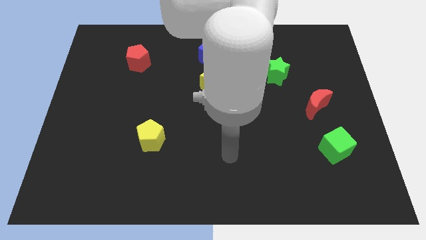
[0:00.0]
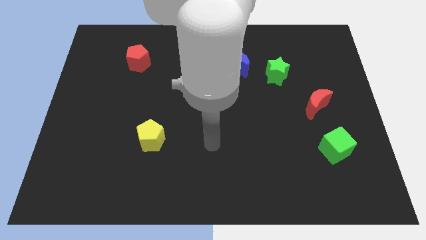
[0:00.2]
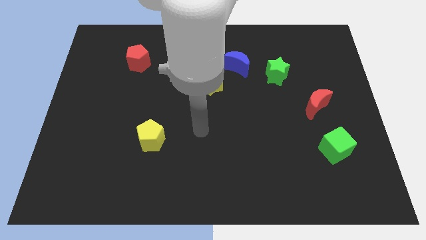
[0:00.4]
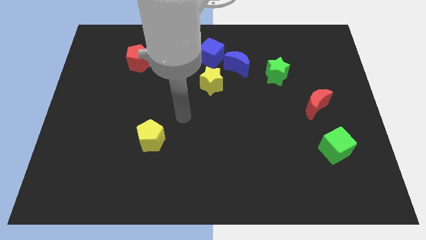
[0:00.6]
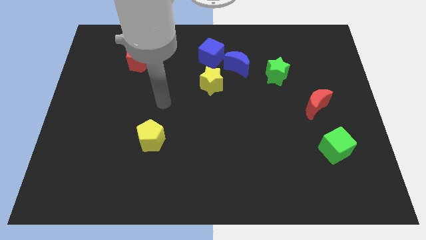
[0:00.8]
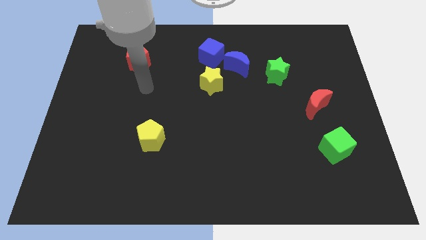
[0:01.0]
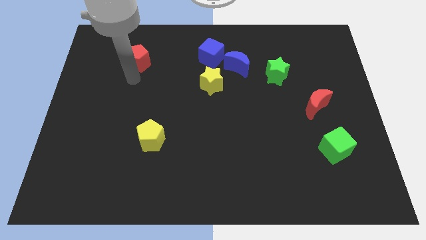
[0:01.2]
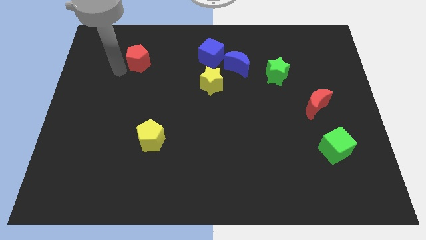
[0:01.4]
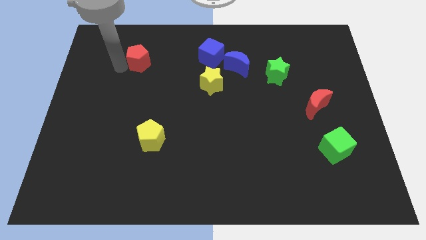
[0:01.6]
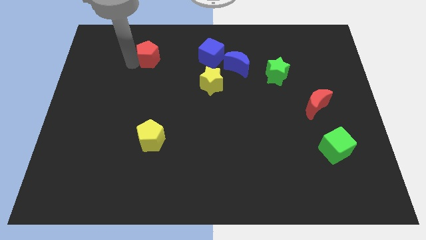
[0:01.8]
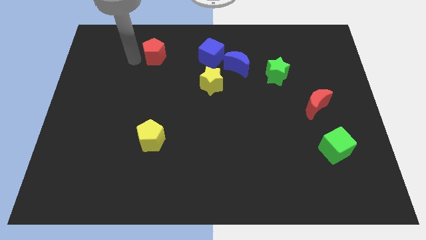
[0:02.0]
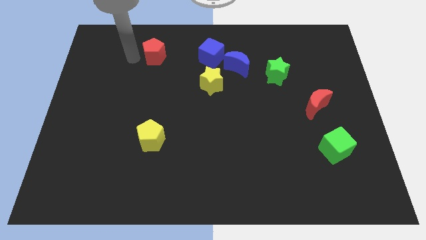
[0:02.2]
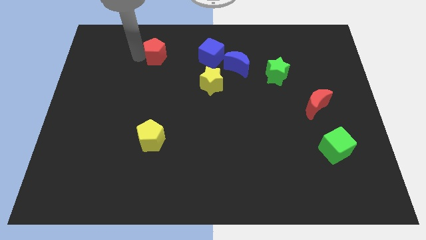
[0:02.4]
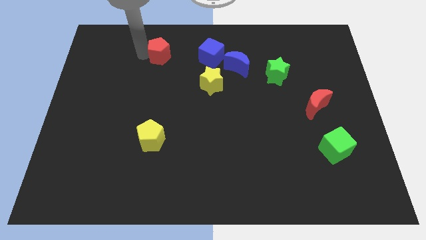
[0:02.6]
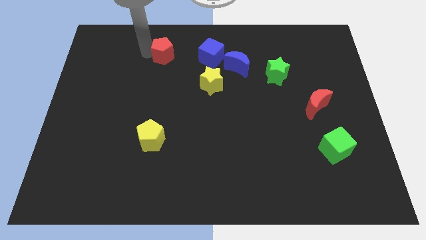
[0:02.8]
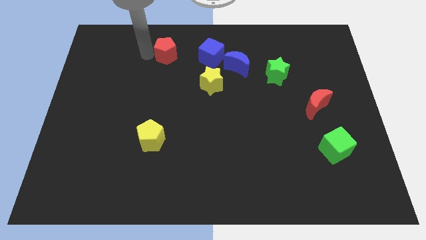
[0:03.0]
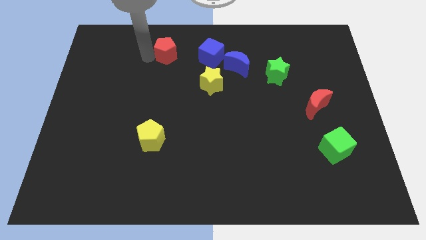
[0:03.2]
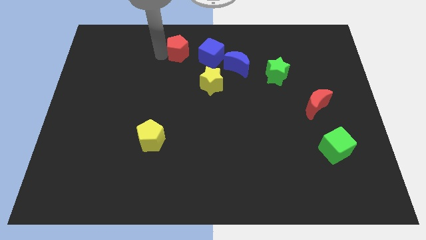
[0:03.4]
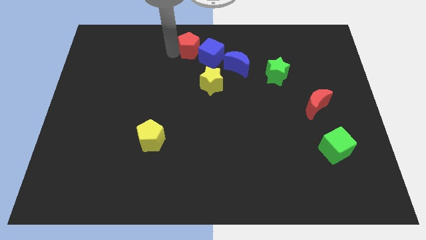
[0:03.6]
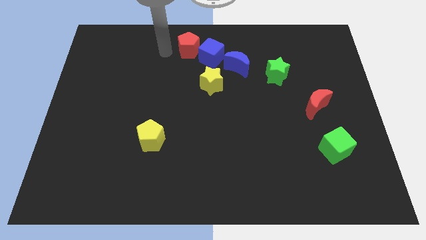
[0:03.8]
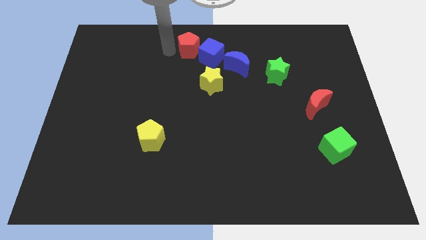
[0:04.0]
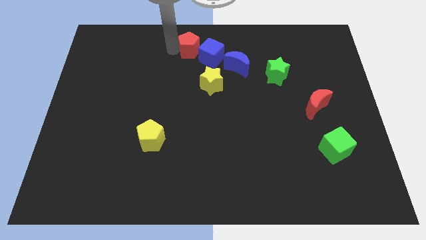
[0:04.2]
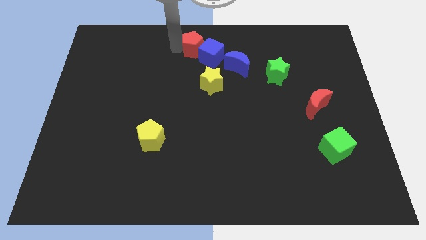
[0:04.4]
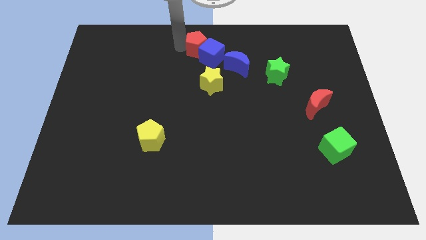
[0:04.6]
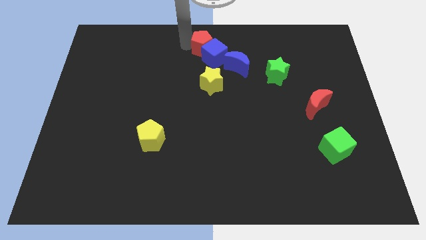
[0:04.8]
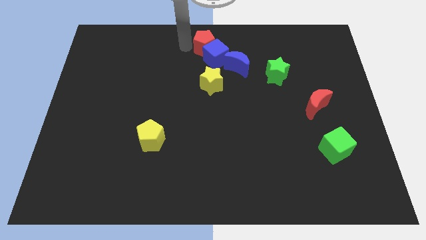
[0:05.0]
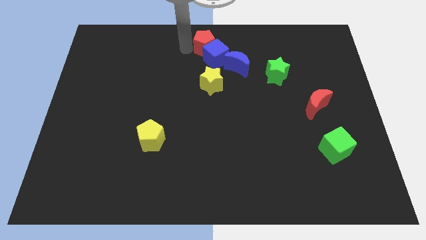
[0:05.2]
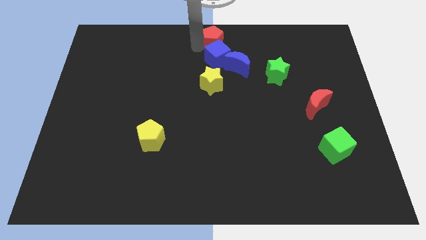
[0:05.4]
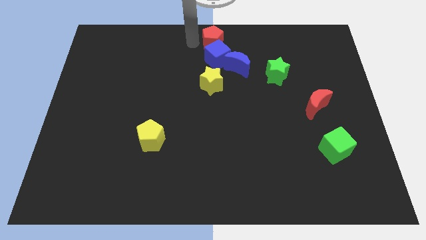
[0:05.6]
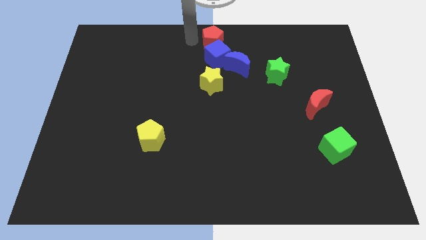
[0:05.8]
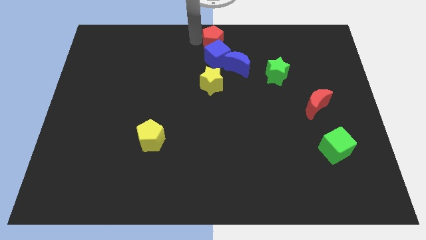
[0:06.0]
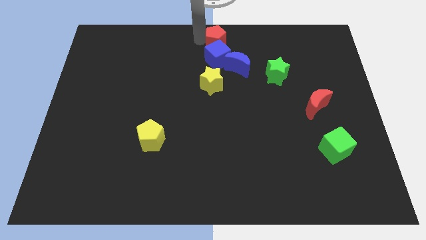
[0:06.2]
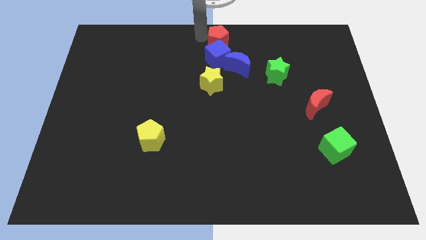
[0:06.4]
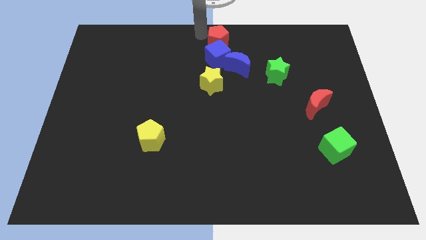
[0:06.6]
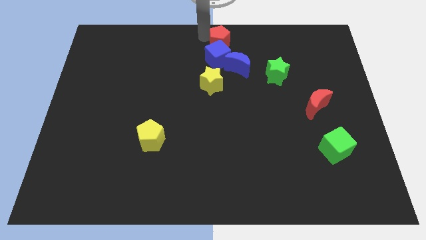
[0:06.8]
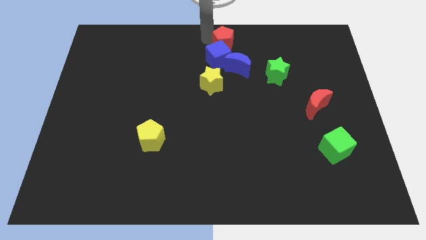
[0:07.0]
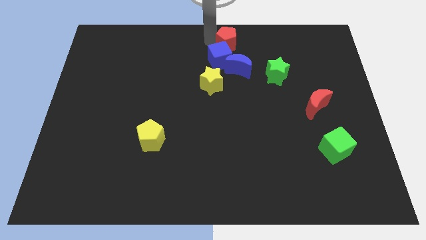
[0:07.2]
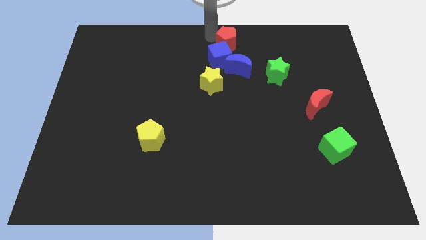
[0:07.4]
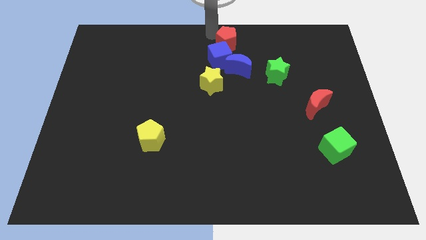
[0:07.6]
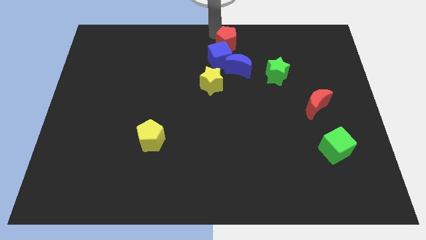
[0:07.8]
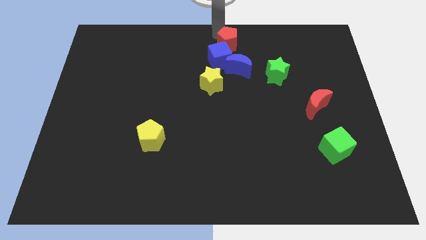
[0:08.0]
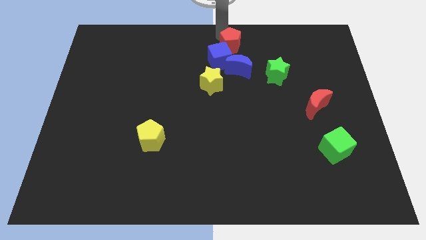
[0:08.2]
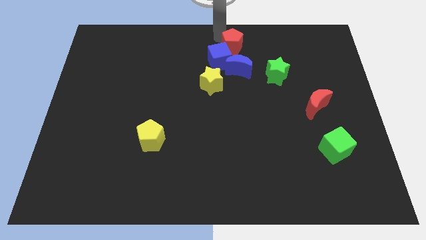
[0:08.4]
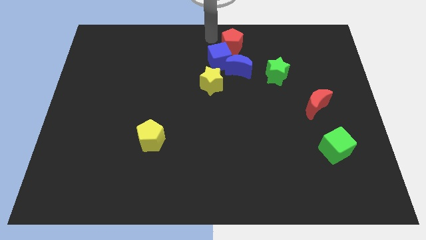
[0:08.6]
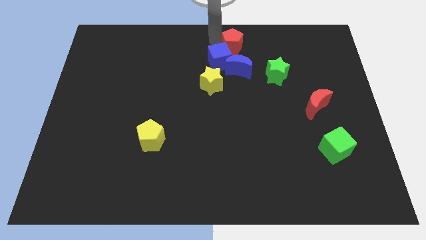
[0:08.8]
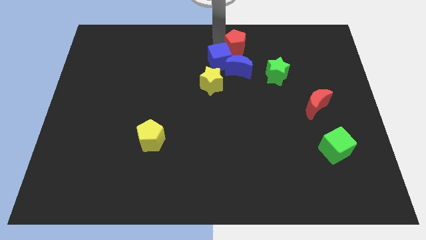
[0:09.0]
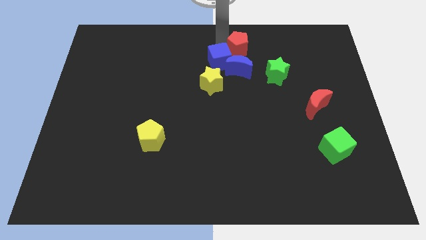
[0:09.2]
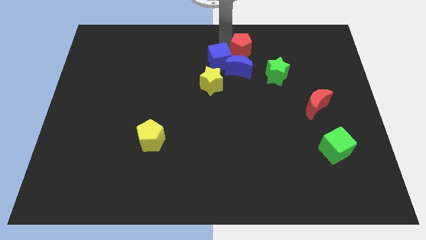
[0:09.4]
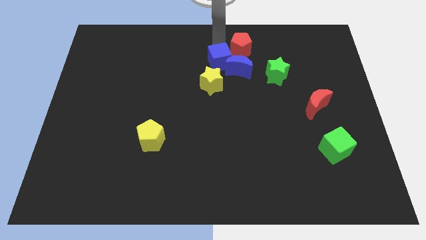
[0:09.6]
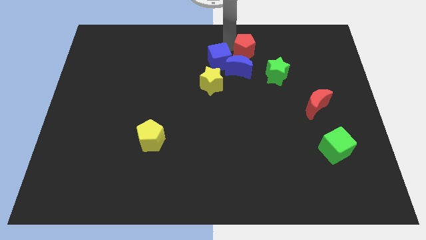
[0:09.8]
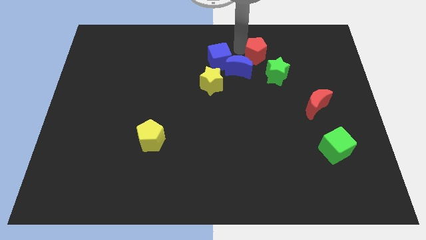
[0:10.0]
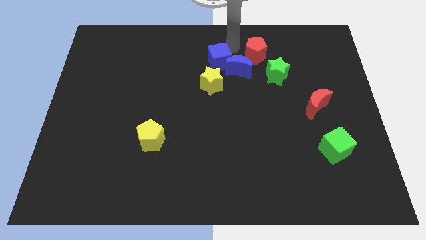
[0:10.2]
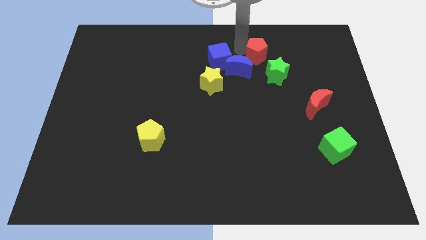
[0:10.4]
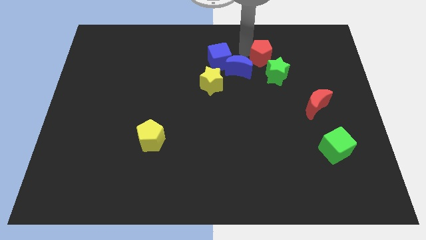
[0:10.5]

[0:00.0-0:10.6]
slide the red pentagon just right of the blue moon

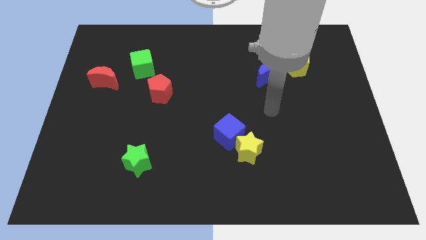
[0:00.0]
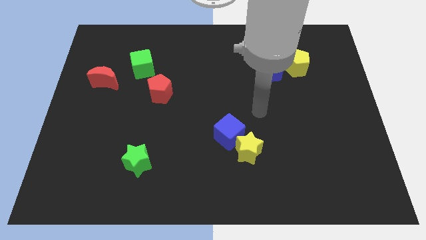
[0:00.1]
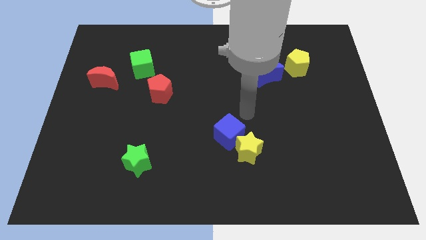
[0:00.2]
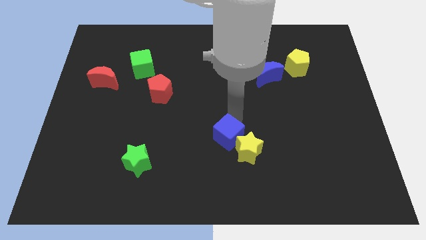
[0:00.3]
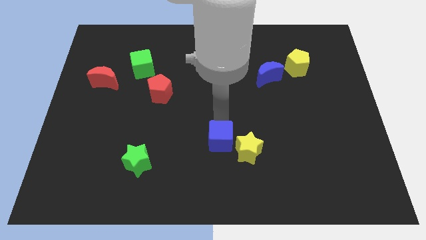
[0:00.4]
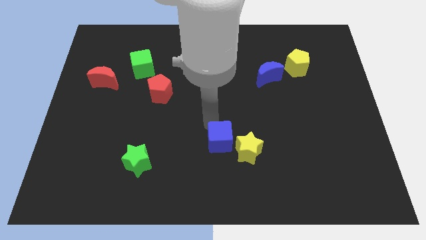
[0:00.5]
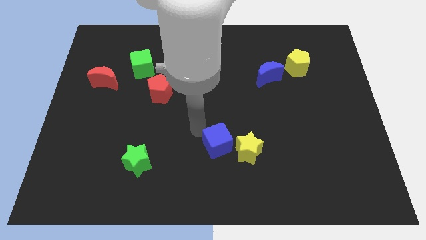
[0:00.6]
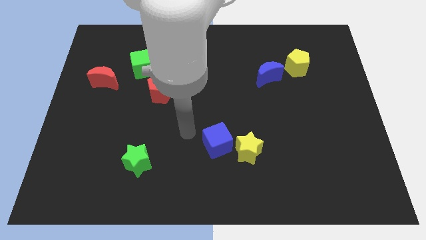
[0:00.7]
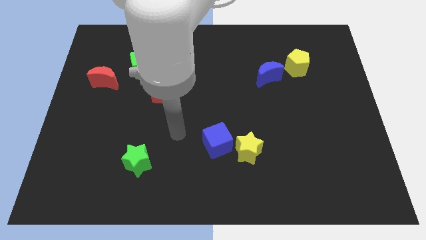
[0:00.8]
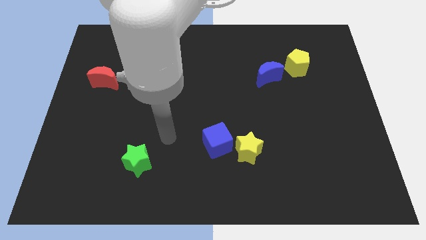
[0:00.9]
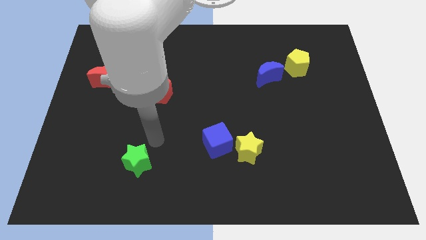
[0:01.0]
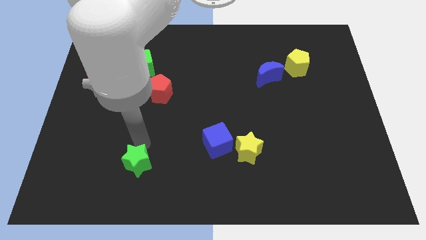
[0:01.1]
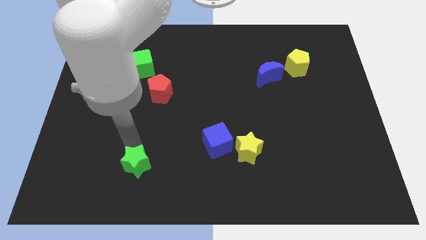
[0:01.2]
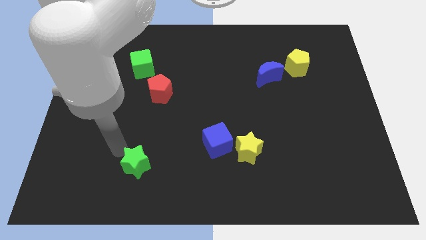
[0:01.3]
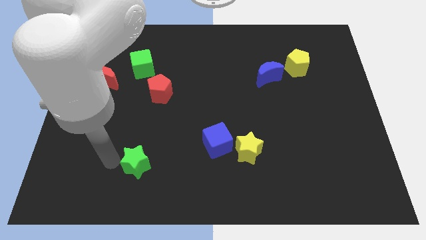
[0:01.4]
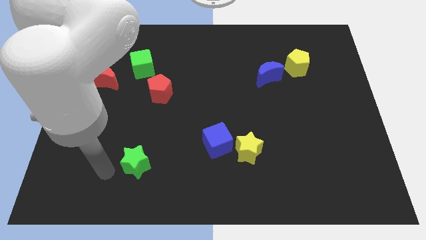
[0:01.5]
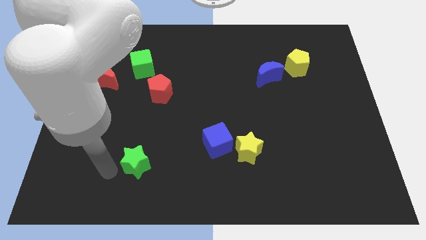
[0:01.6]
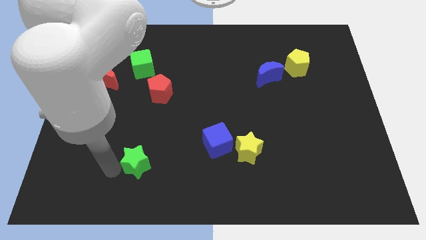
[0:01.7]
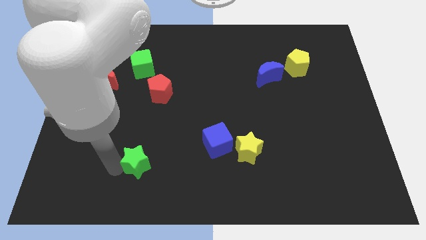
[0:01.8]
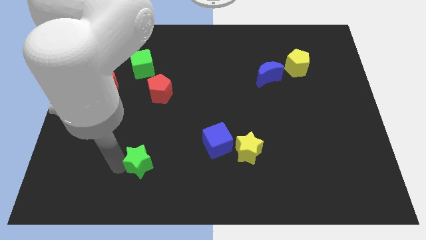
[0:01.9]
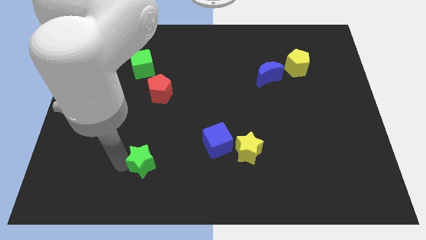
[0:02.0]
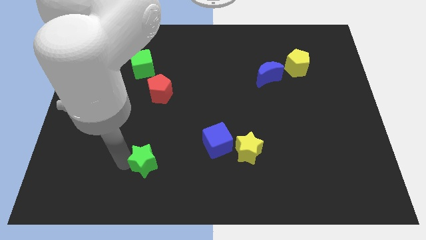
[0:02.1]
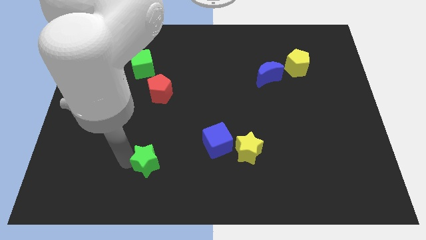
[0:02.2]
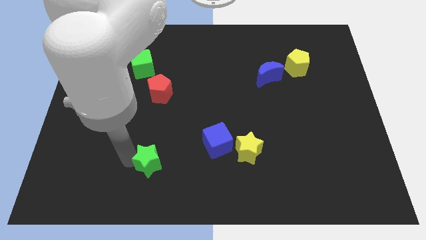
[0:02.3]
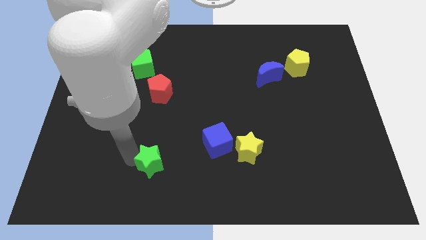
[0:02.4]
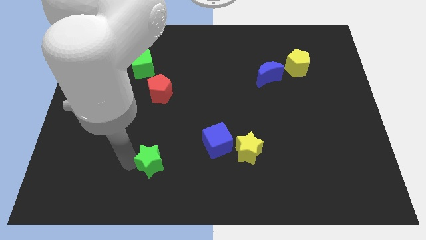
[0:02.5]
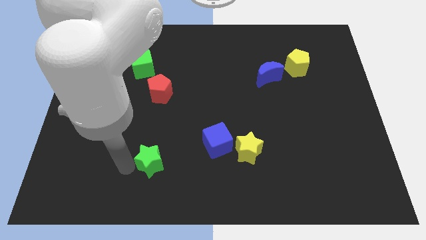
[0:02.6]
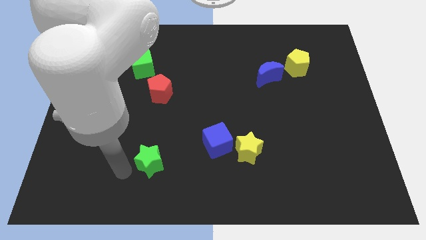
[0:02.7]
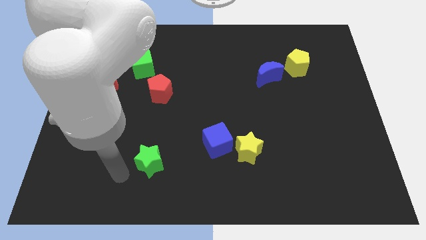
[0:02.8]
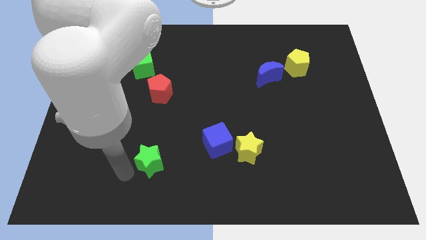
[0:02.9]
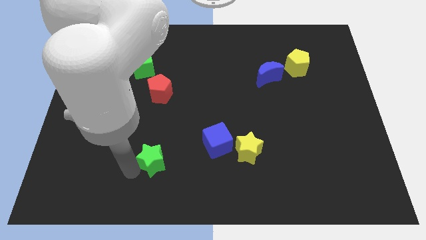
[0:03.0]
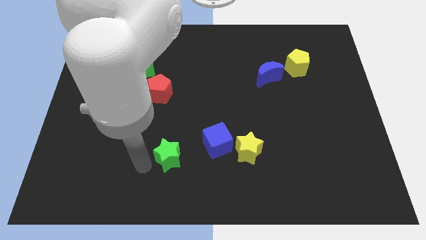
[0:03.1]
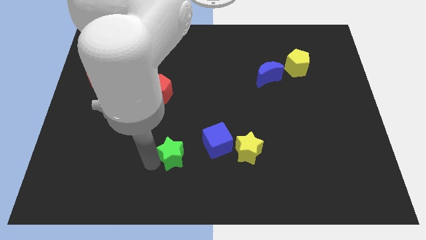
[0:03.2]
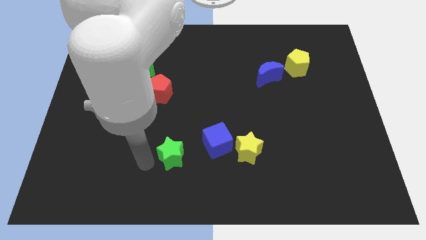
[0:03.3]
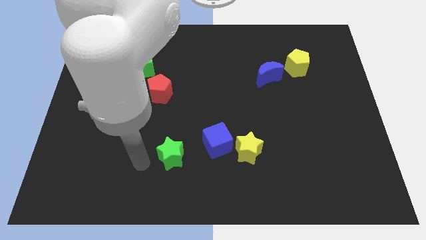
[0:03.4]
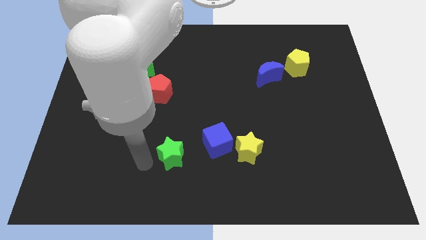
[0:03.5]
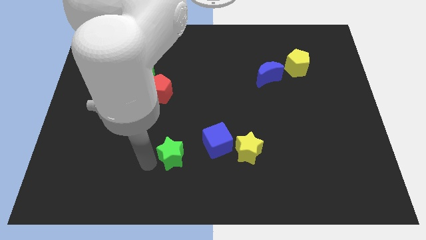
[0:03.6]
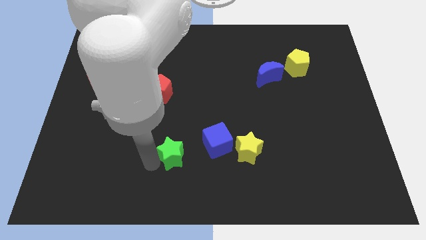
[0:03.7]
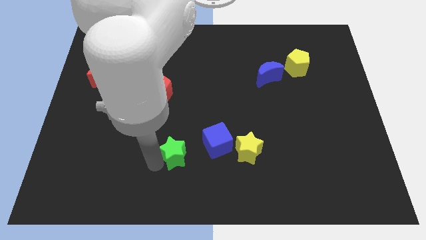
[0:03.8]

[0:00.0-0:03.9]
slide the green star to the left of the yellow star
